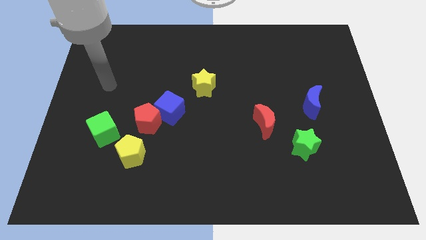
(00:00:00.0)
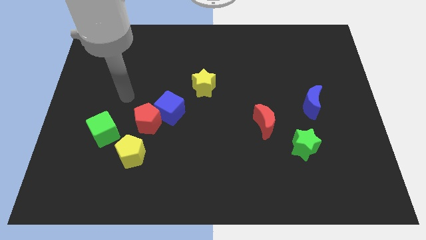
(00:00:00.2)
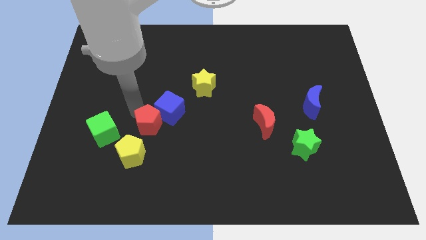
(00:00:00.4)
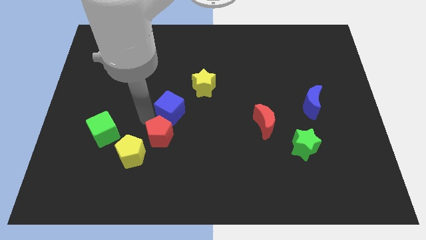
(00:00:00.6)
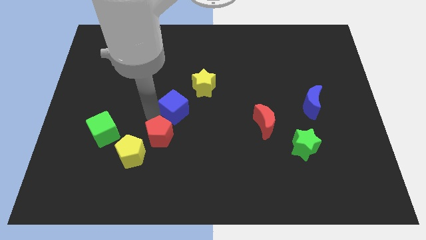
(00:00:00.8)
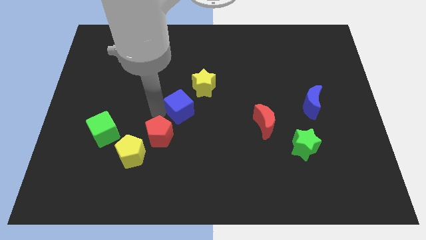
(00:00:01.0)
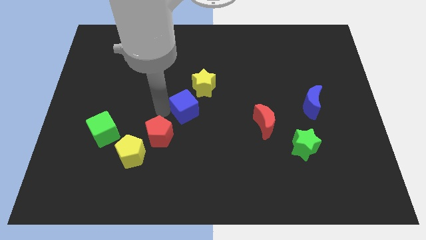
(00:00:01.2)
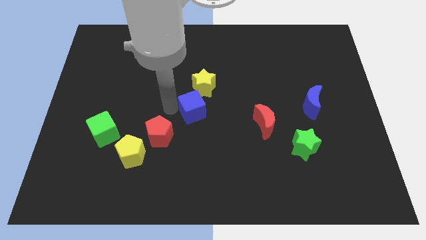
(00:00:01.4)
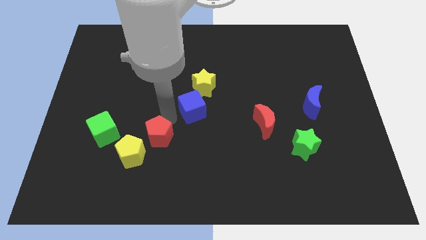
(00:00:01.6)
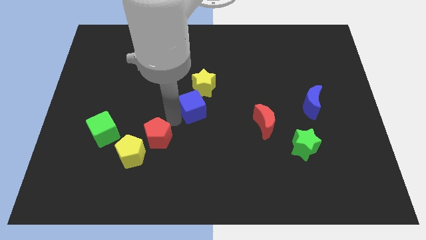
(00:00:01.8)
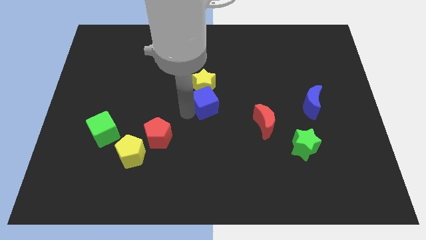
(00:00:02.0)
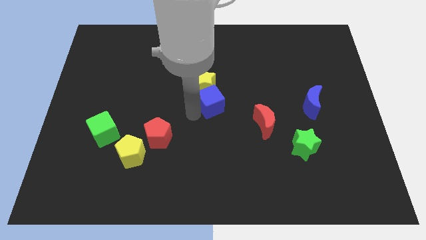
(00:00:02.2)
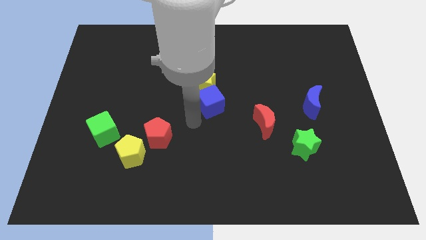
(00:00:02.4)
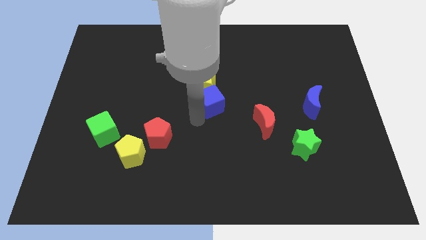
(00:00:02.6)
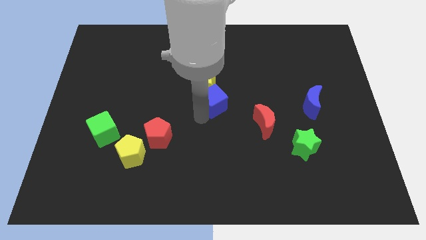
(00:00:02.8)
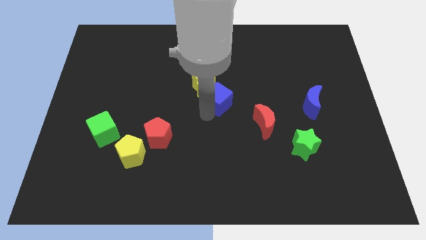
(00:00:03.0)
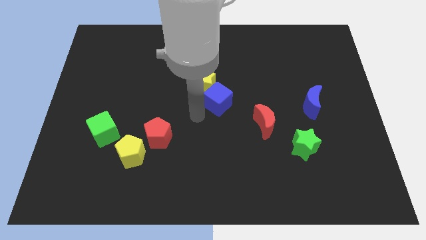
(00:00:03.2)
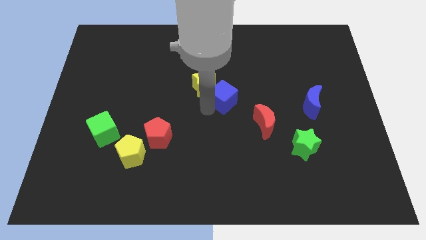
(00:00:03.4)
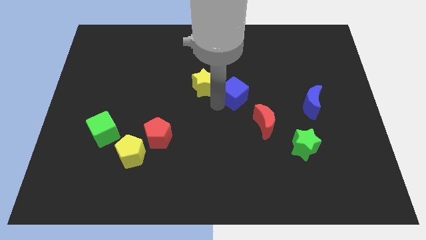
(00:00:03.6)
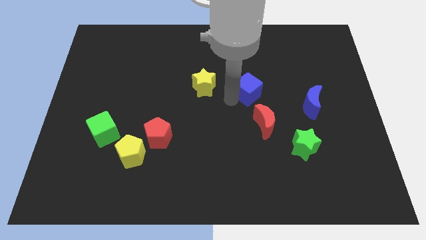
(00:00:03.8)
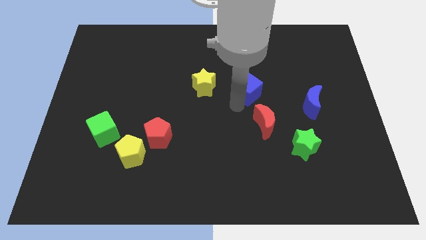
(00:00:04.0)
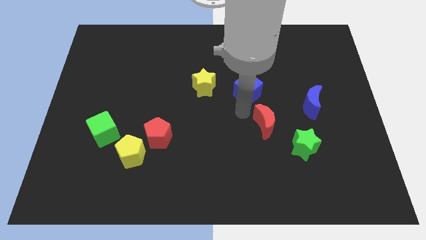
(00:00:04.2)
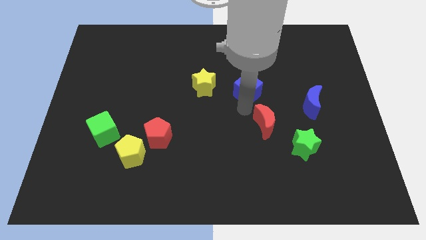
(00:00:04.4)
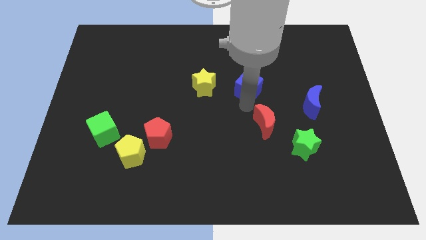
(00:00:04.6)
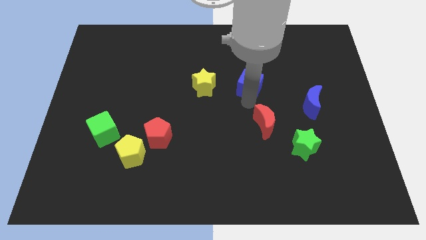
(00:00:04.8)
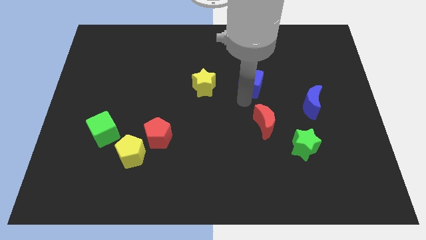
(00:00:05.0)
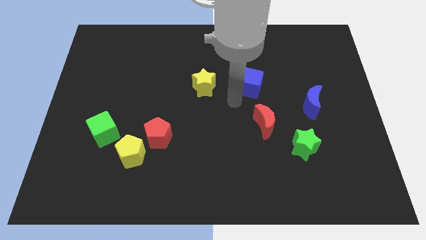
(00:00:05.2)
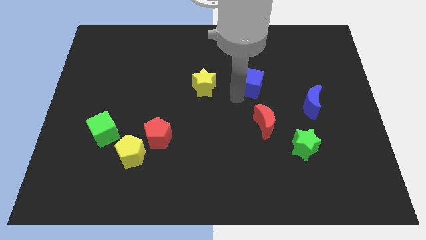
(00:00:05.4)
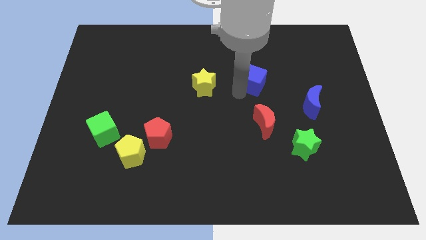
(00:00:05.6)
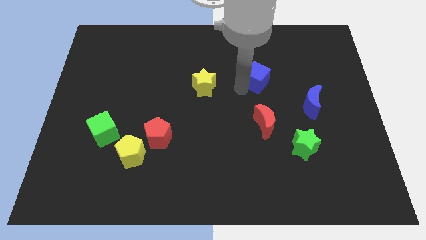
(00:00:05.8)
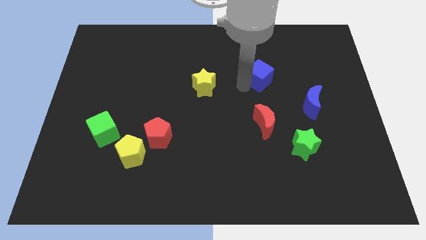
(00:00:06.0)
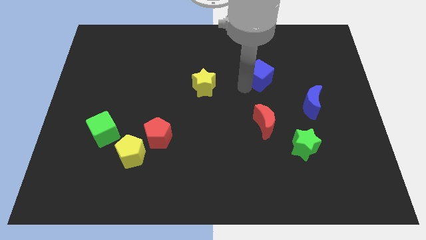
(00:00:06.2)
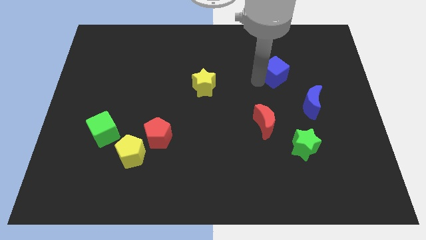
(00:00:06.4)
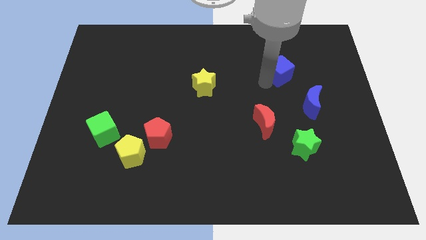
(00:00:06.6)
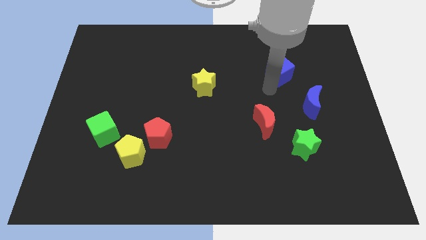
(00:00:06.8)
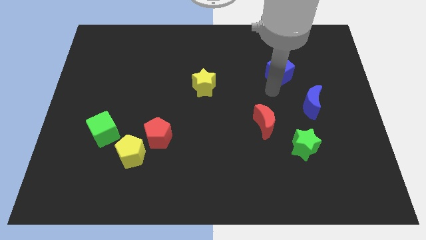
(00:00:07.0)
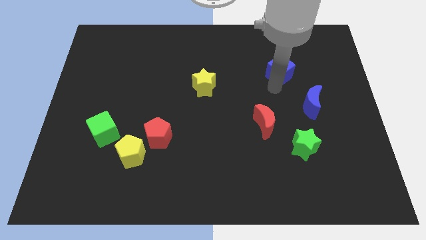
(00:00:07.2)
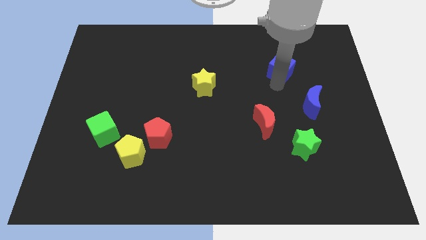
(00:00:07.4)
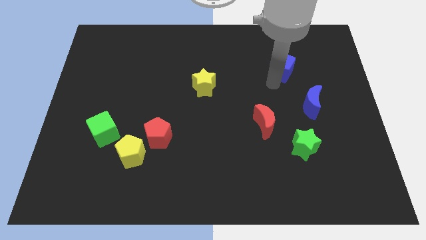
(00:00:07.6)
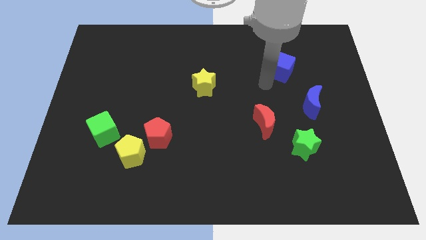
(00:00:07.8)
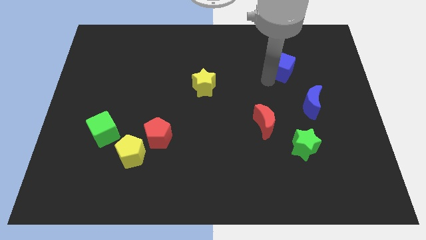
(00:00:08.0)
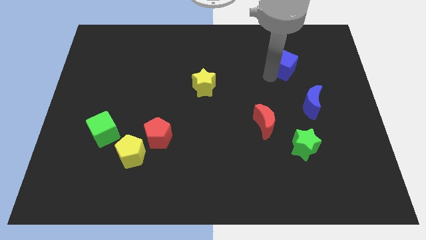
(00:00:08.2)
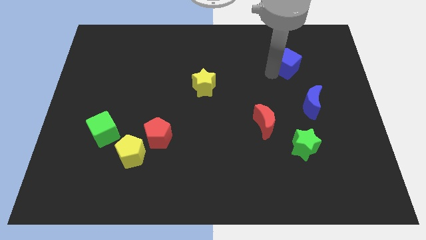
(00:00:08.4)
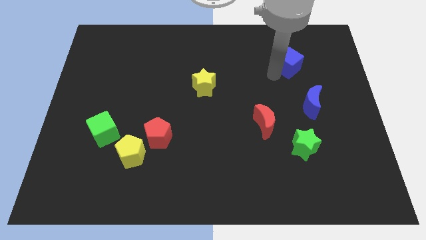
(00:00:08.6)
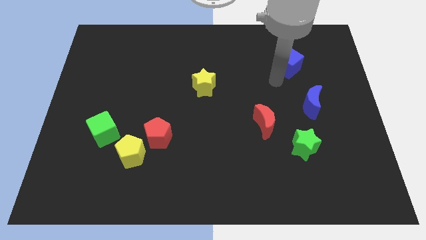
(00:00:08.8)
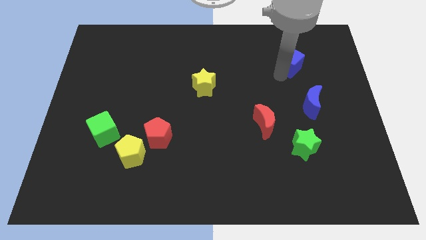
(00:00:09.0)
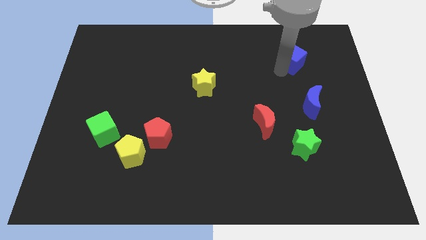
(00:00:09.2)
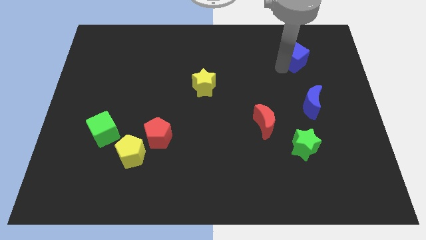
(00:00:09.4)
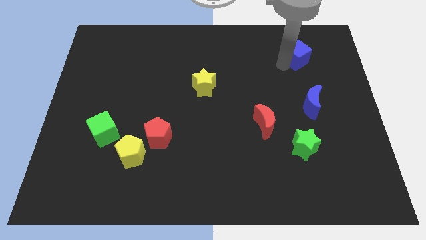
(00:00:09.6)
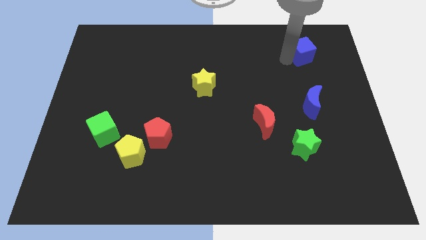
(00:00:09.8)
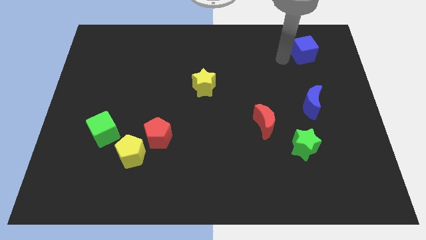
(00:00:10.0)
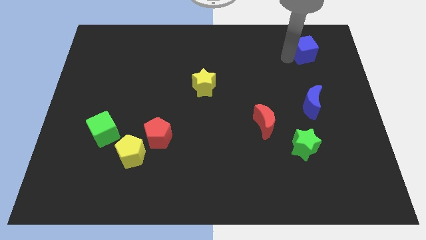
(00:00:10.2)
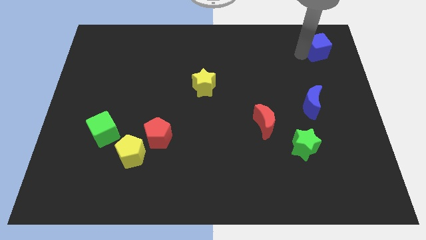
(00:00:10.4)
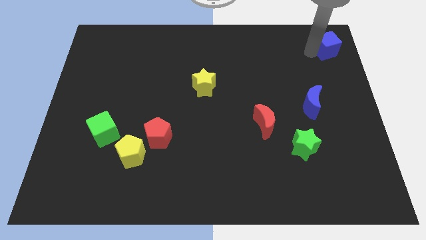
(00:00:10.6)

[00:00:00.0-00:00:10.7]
move the blue cube to the top right of the board
